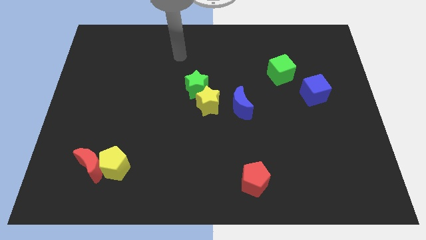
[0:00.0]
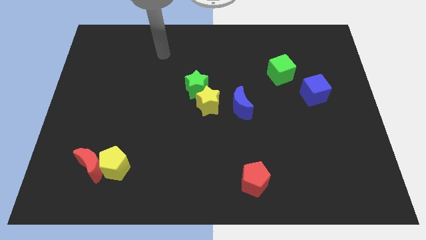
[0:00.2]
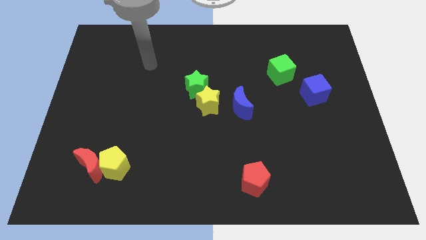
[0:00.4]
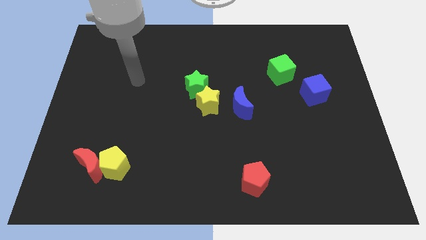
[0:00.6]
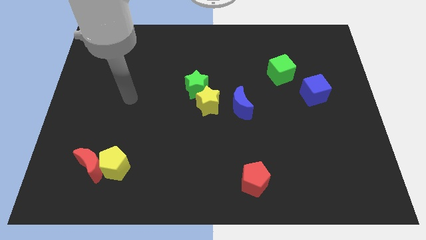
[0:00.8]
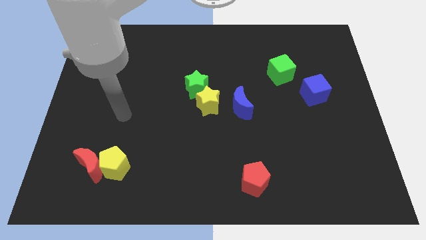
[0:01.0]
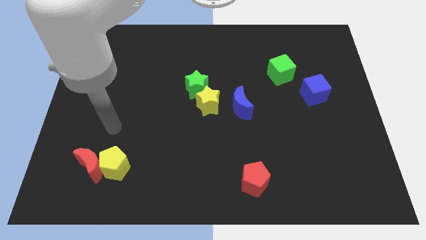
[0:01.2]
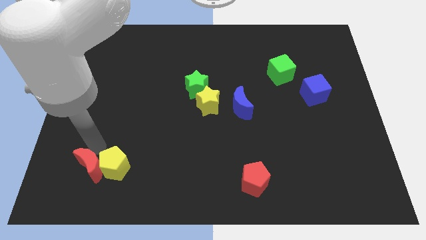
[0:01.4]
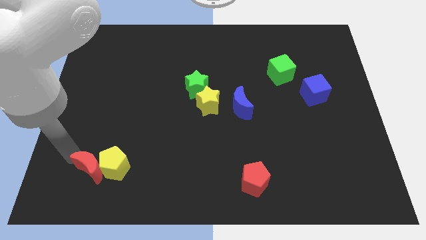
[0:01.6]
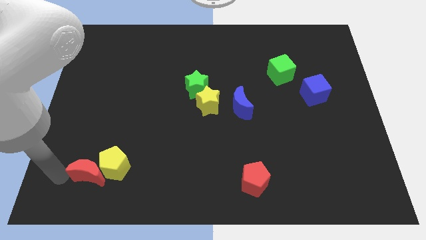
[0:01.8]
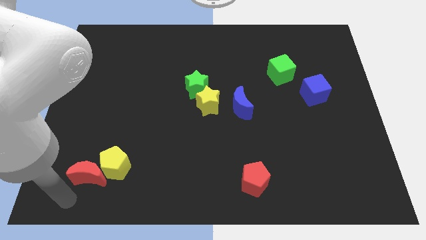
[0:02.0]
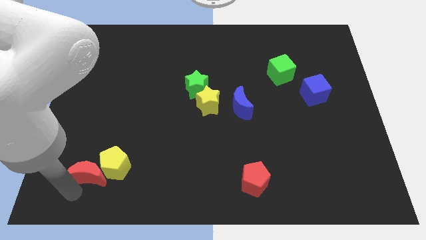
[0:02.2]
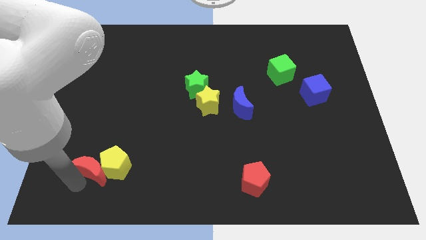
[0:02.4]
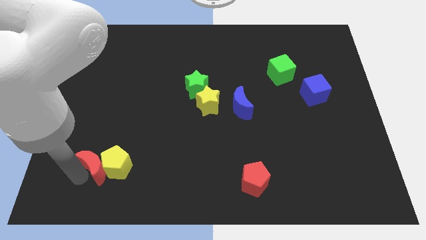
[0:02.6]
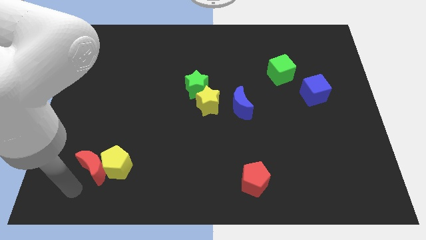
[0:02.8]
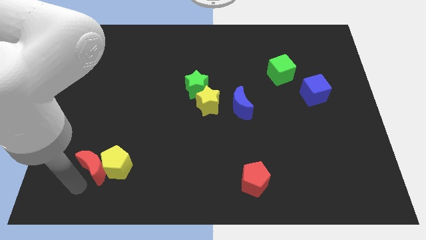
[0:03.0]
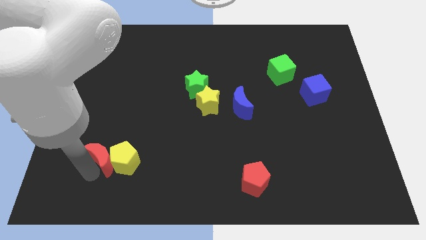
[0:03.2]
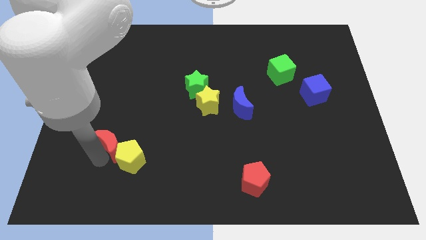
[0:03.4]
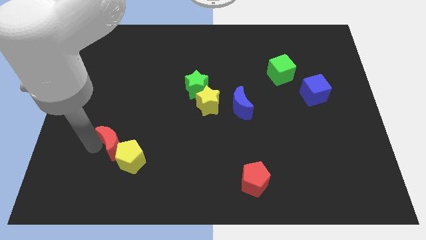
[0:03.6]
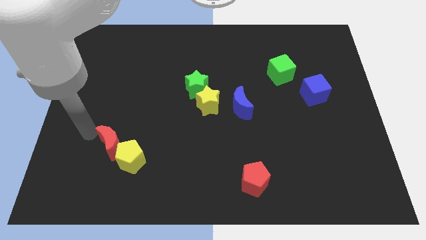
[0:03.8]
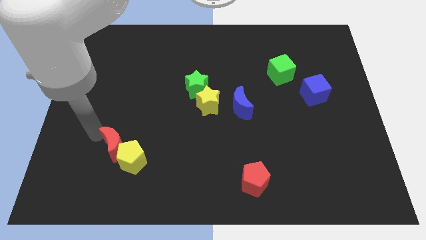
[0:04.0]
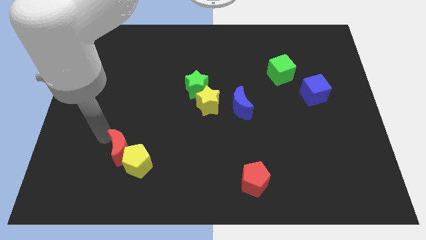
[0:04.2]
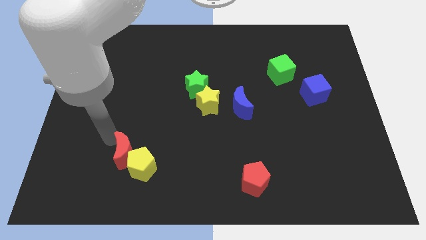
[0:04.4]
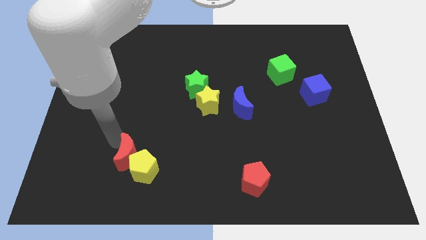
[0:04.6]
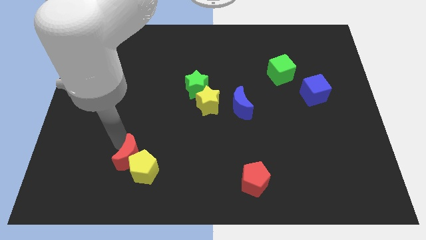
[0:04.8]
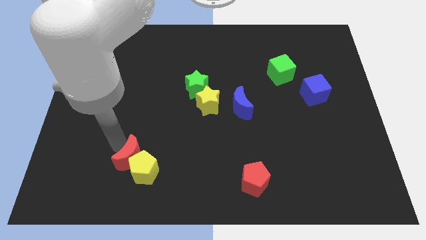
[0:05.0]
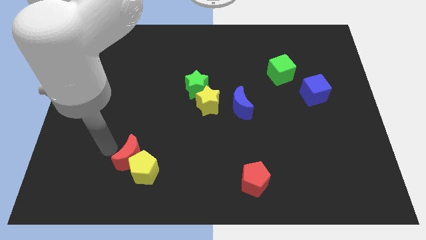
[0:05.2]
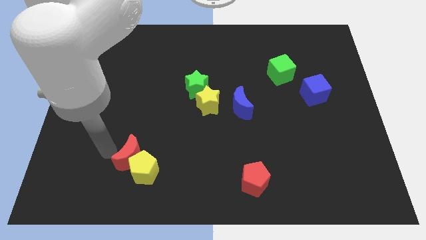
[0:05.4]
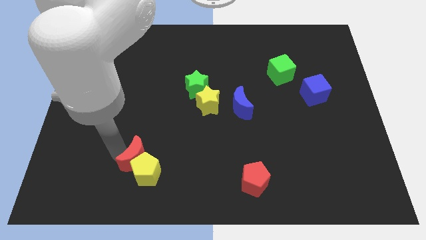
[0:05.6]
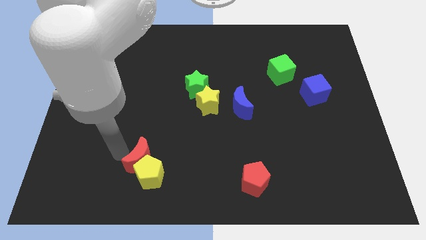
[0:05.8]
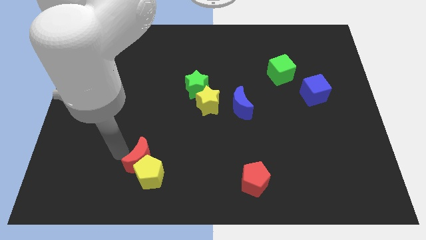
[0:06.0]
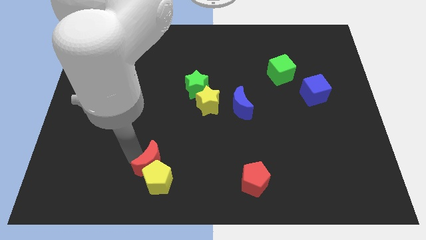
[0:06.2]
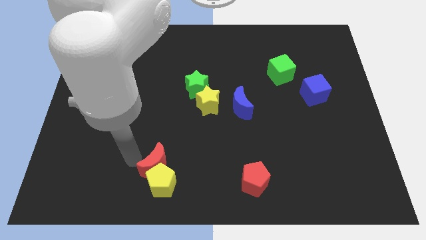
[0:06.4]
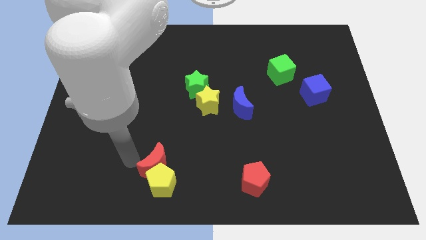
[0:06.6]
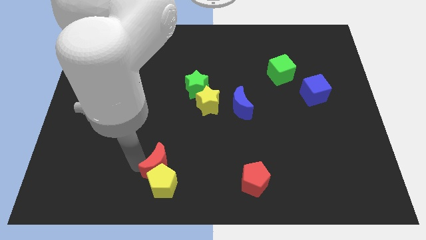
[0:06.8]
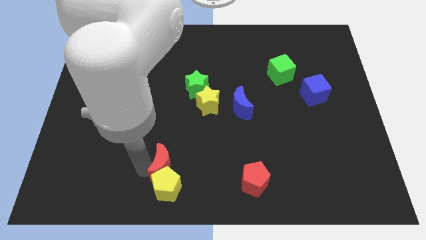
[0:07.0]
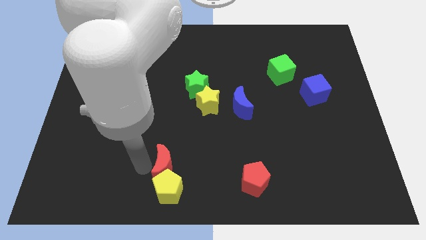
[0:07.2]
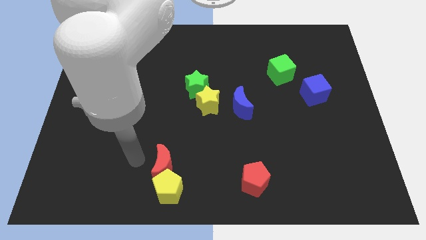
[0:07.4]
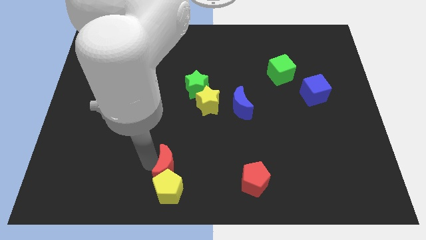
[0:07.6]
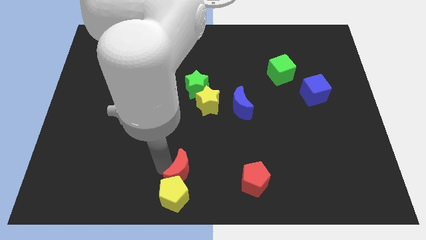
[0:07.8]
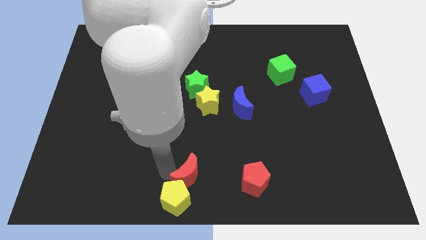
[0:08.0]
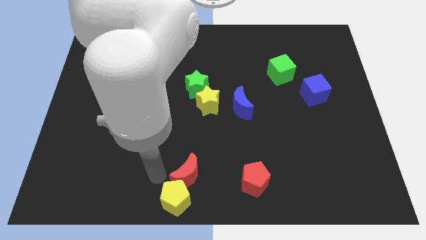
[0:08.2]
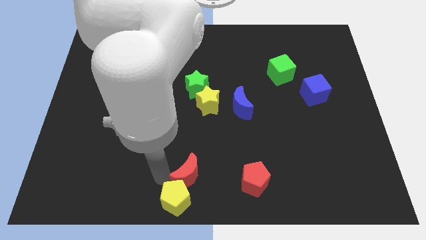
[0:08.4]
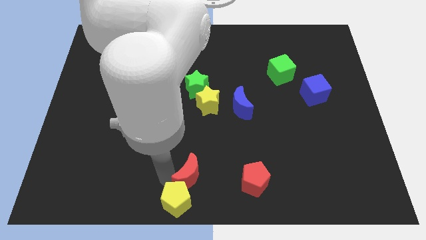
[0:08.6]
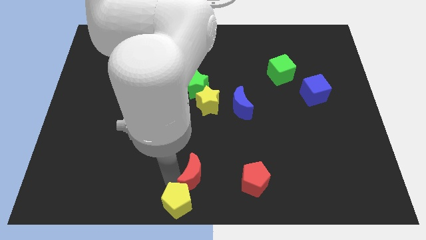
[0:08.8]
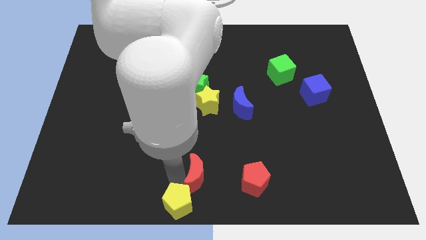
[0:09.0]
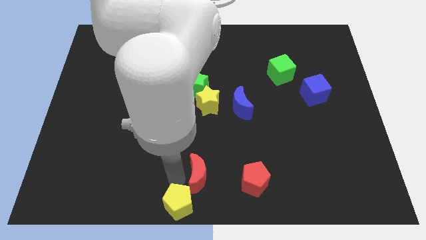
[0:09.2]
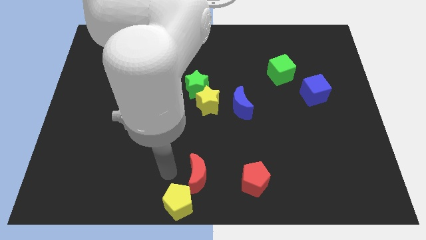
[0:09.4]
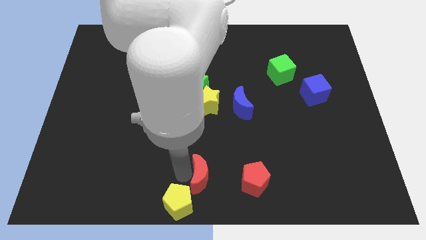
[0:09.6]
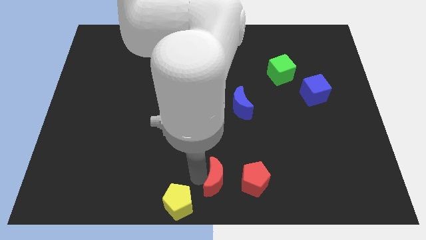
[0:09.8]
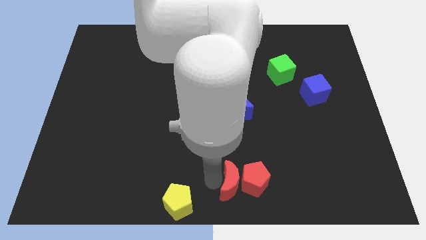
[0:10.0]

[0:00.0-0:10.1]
slide the red moon next to the red pentagon

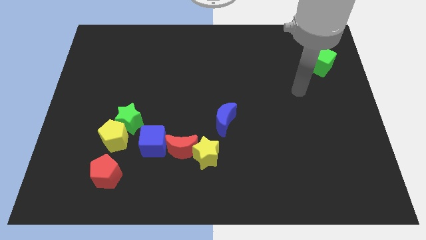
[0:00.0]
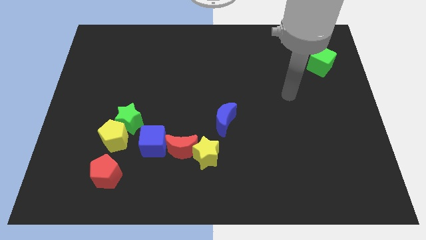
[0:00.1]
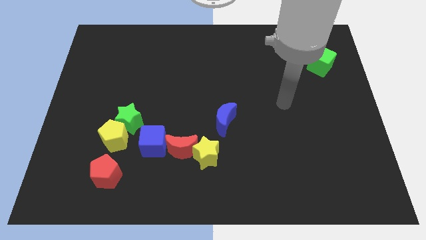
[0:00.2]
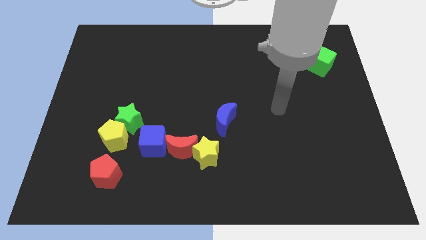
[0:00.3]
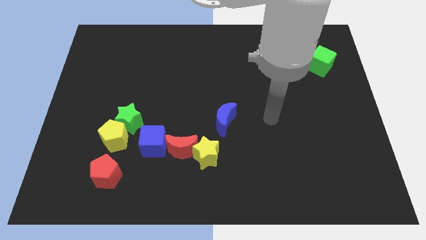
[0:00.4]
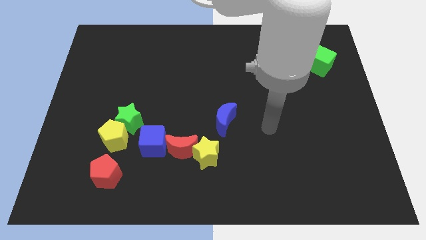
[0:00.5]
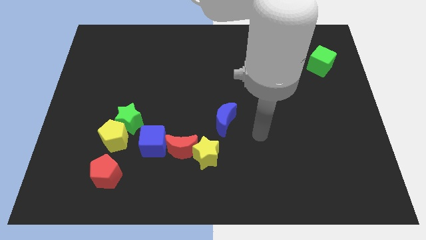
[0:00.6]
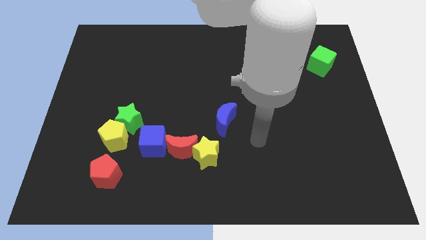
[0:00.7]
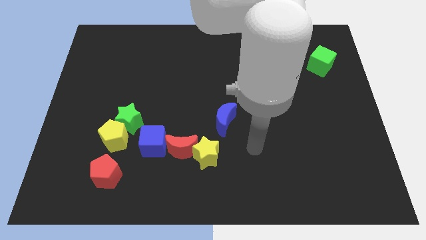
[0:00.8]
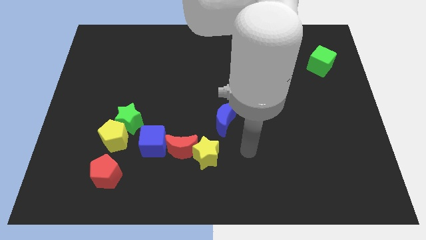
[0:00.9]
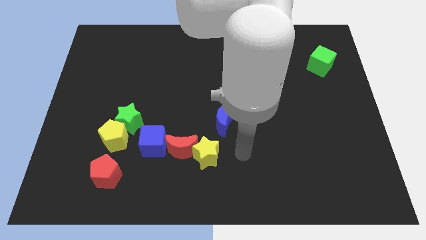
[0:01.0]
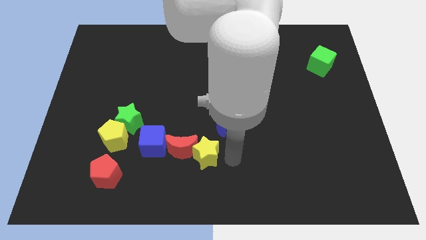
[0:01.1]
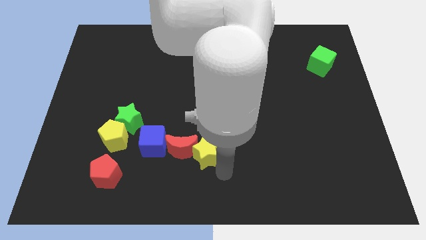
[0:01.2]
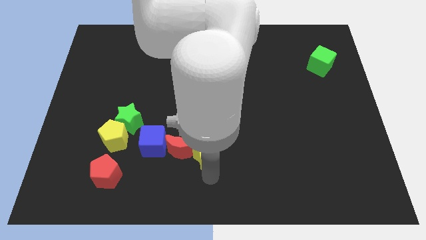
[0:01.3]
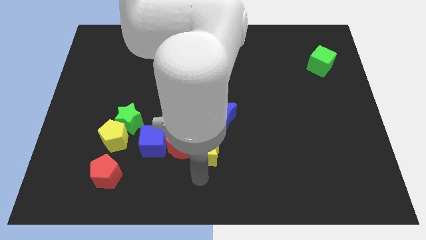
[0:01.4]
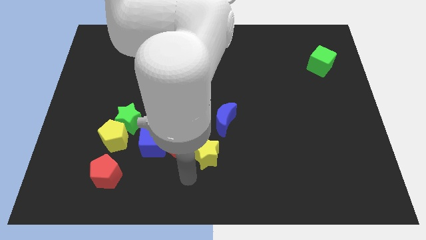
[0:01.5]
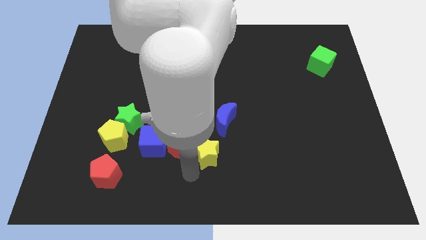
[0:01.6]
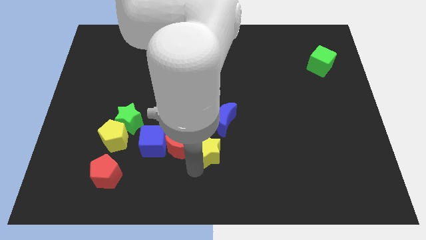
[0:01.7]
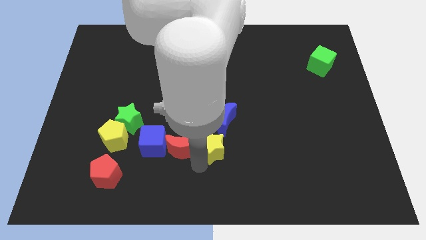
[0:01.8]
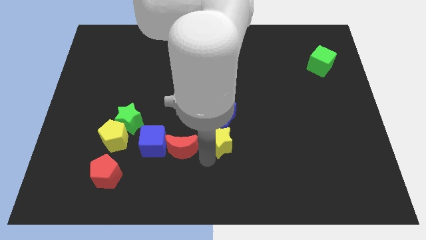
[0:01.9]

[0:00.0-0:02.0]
move the yellow star towards the blue moon
